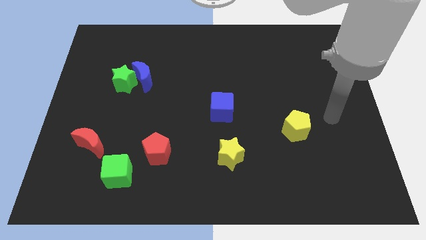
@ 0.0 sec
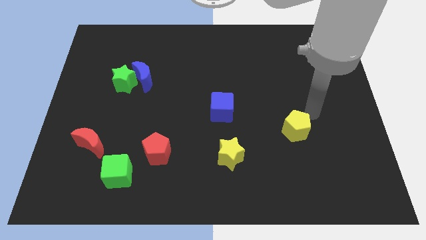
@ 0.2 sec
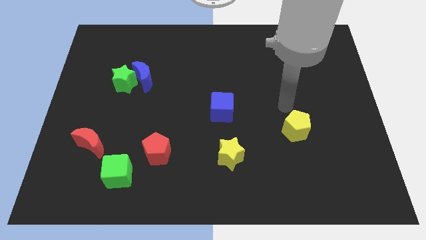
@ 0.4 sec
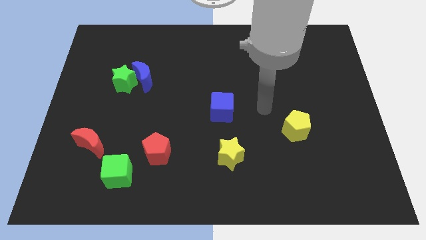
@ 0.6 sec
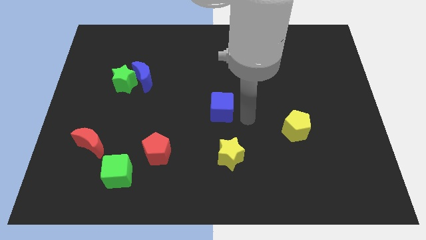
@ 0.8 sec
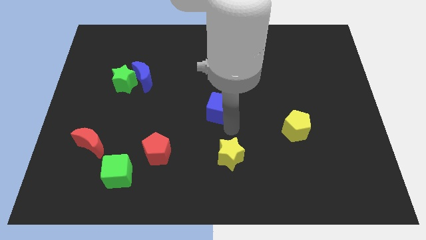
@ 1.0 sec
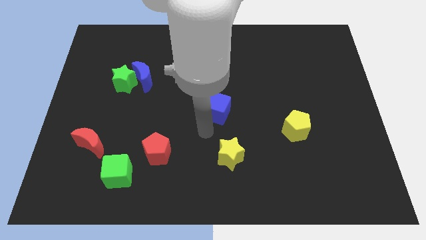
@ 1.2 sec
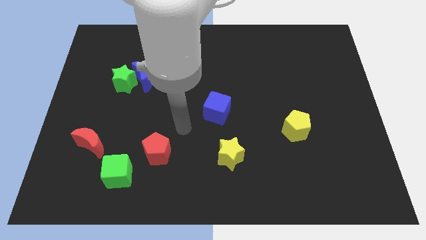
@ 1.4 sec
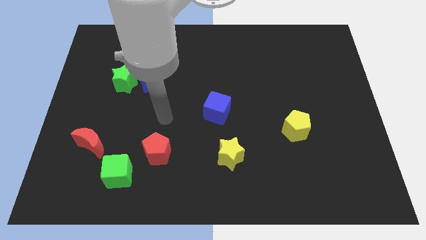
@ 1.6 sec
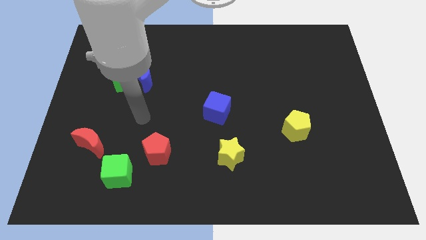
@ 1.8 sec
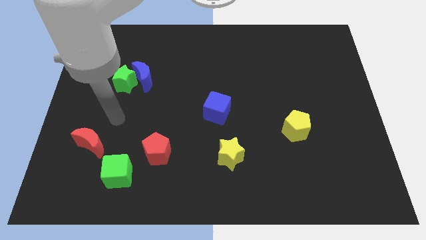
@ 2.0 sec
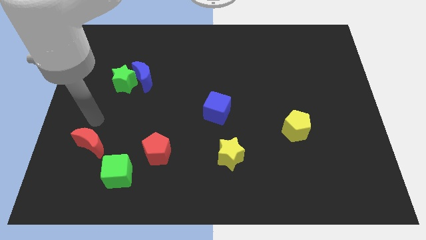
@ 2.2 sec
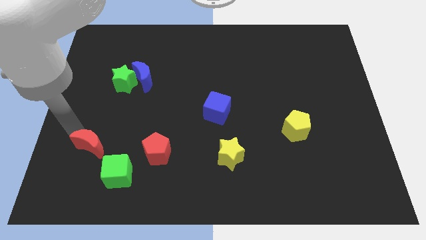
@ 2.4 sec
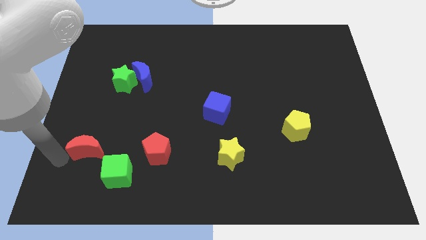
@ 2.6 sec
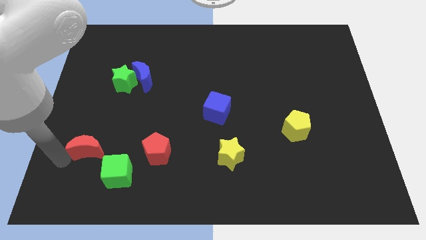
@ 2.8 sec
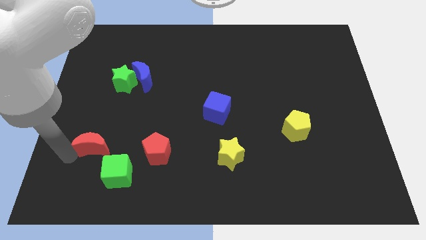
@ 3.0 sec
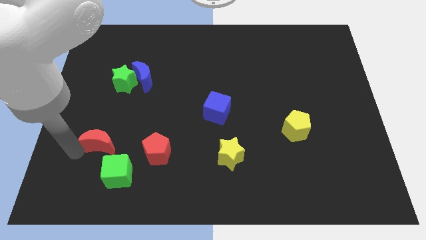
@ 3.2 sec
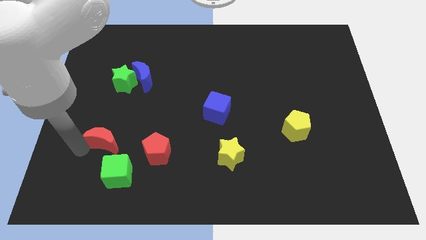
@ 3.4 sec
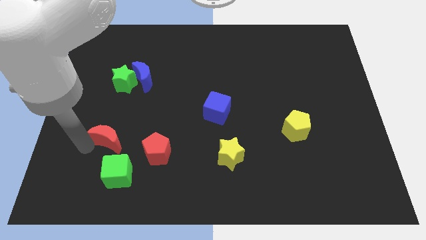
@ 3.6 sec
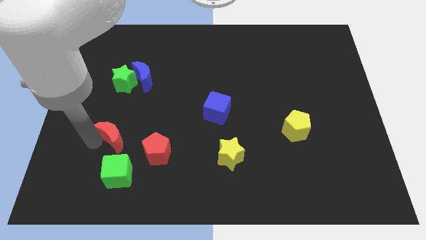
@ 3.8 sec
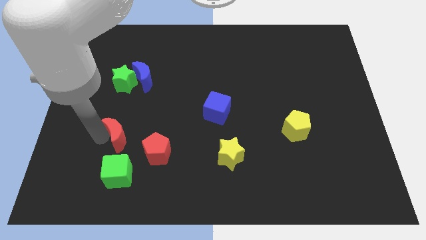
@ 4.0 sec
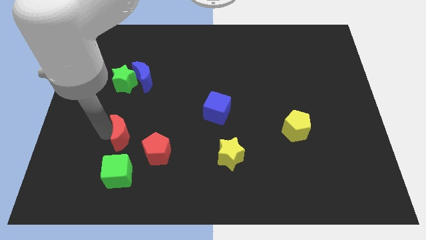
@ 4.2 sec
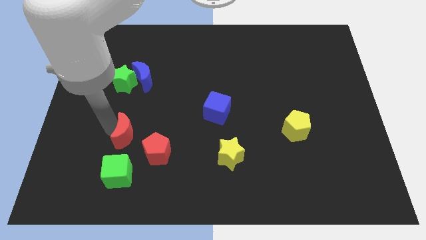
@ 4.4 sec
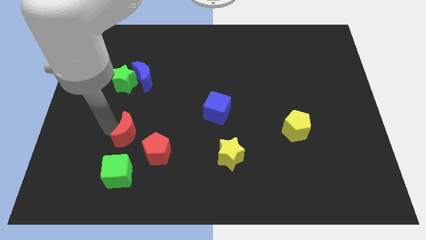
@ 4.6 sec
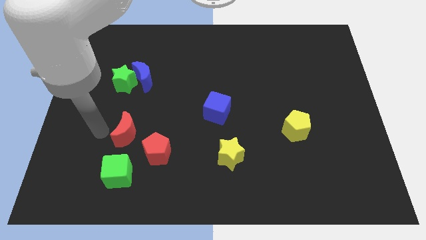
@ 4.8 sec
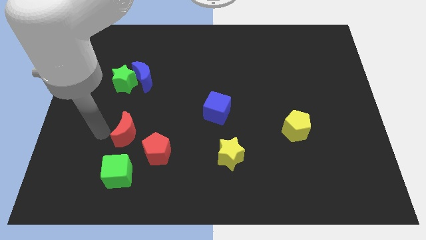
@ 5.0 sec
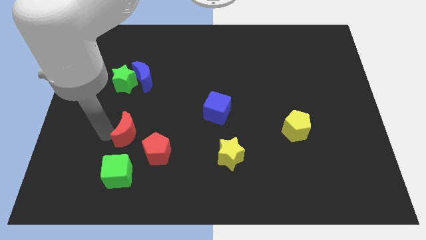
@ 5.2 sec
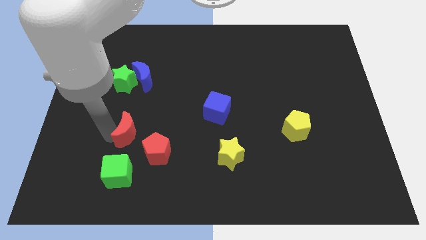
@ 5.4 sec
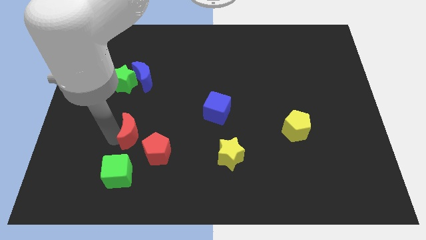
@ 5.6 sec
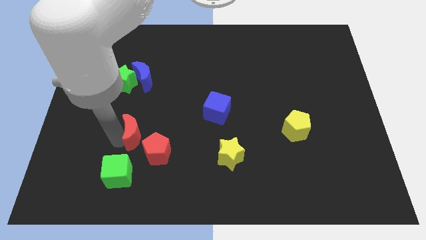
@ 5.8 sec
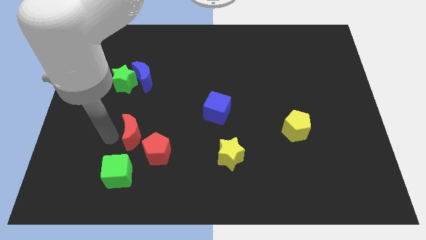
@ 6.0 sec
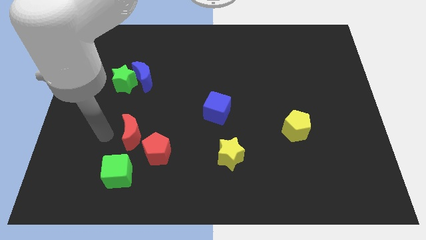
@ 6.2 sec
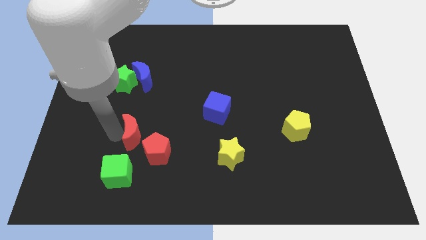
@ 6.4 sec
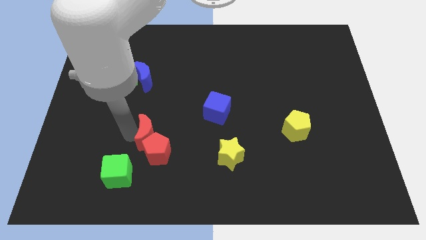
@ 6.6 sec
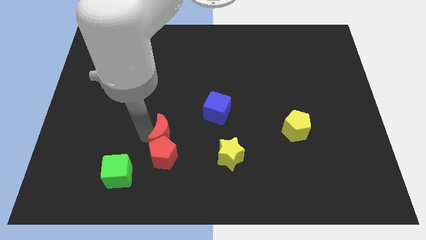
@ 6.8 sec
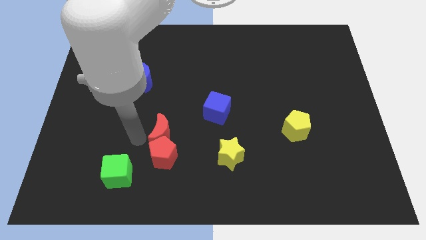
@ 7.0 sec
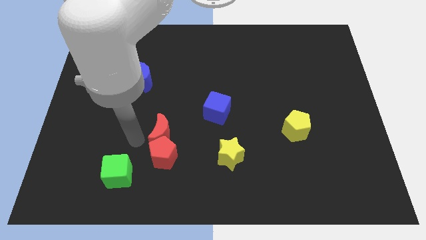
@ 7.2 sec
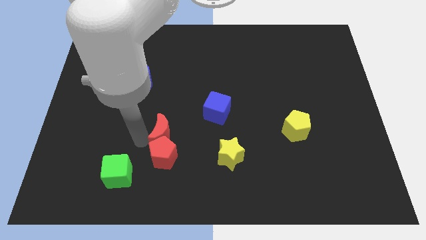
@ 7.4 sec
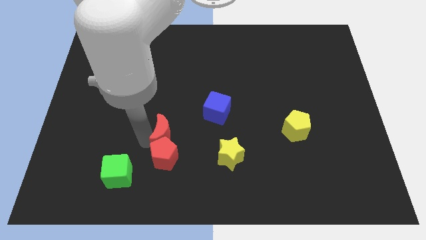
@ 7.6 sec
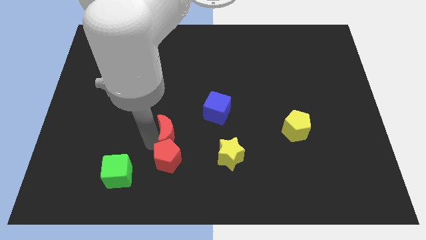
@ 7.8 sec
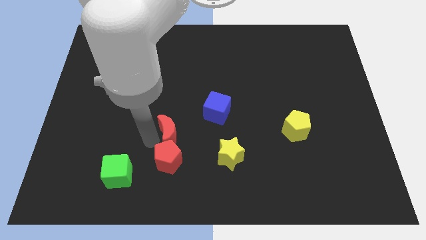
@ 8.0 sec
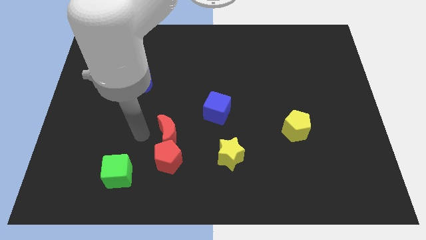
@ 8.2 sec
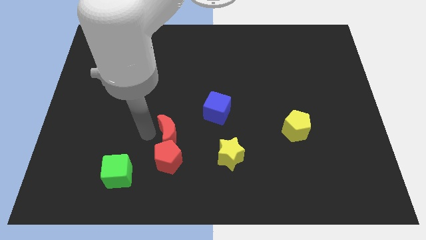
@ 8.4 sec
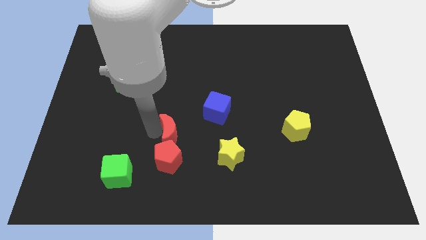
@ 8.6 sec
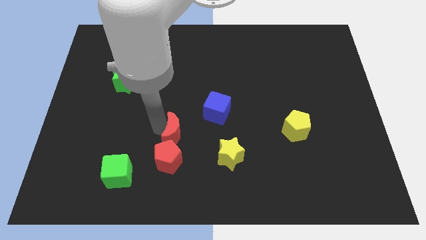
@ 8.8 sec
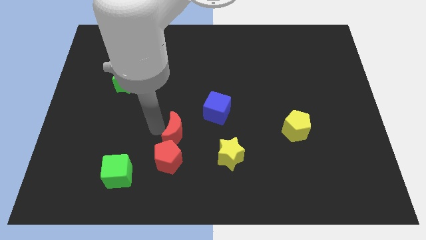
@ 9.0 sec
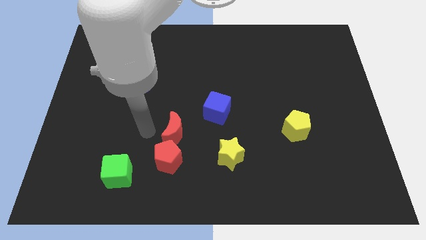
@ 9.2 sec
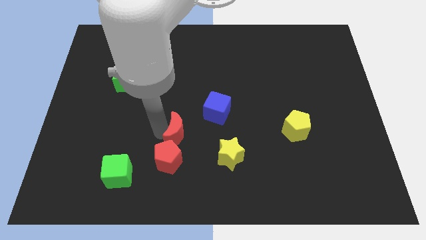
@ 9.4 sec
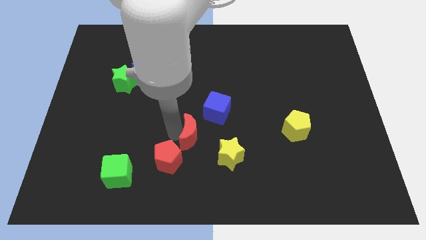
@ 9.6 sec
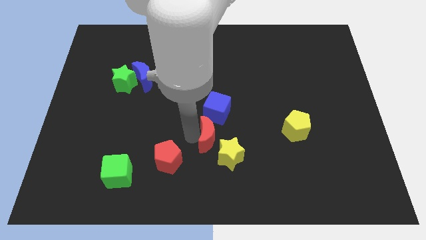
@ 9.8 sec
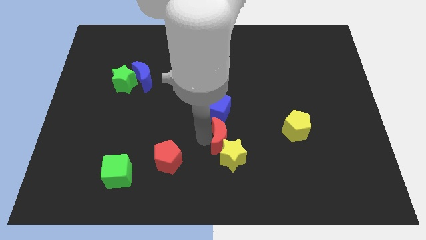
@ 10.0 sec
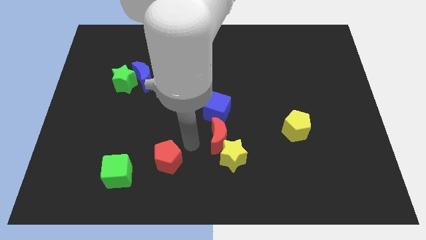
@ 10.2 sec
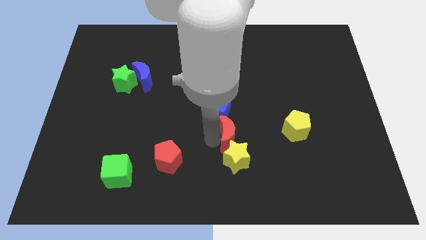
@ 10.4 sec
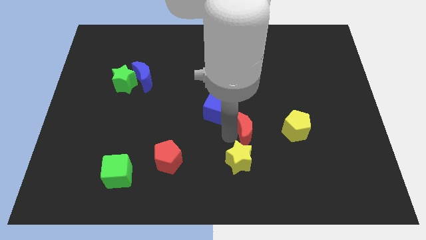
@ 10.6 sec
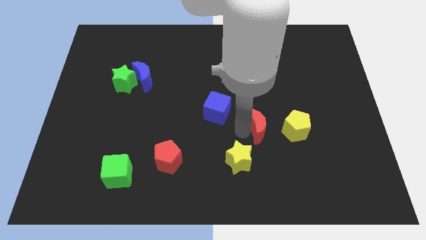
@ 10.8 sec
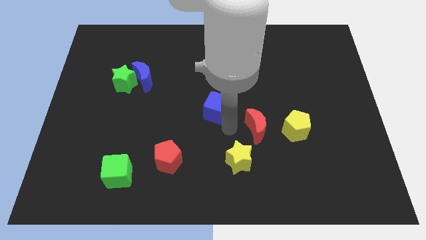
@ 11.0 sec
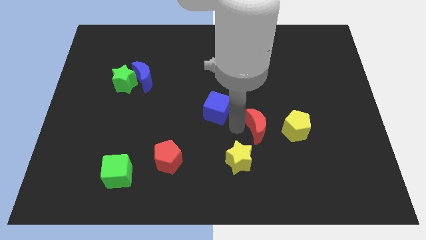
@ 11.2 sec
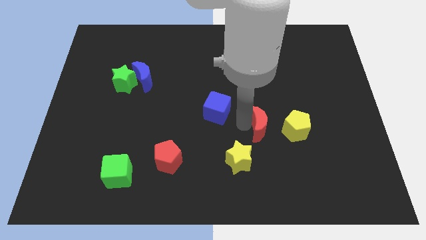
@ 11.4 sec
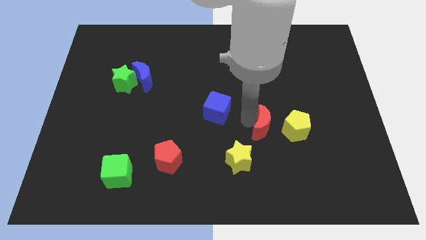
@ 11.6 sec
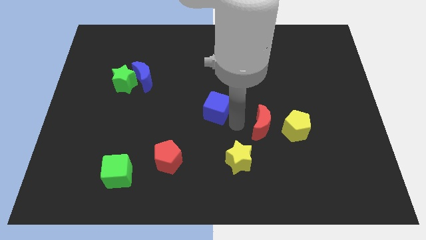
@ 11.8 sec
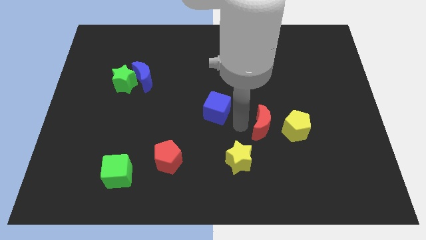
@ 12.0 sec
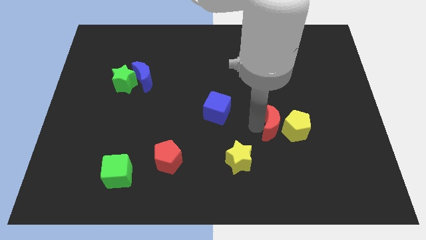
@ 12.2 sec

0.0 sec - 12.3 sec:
slide the red moon to the yellow pentagon

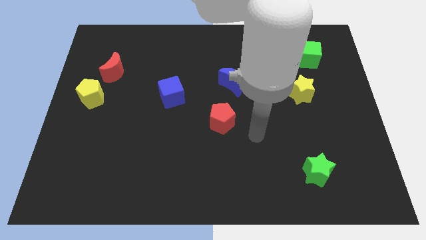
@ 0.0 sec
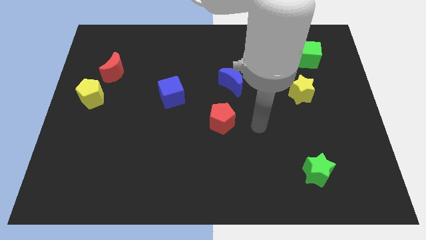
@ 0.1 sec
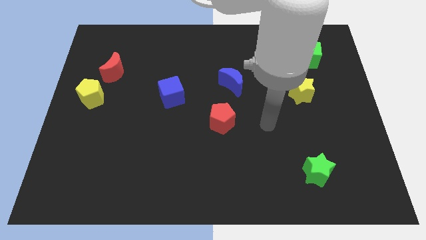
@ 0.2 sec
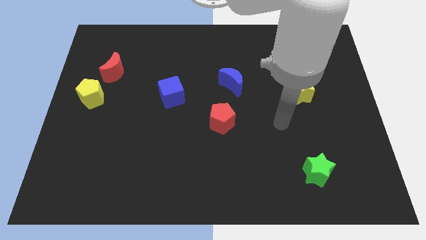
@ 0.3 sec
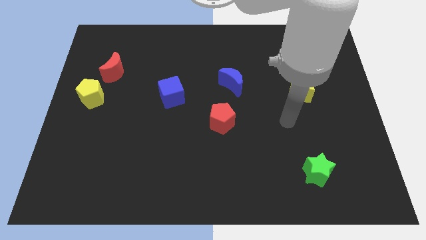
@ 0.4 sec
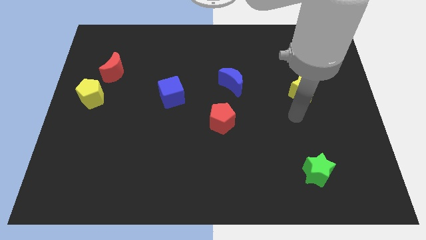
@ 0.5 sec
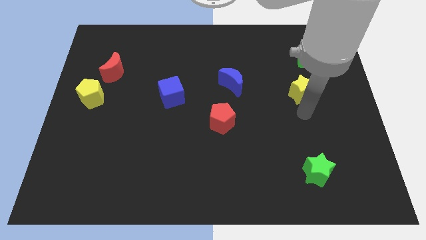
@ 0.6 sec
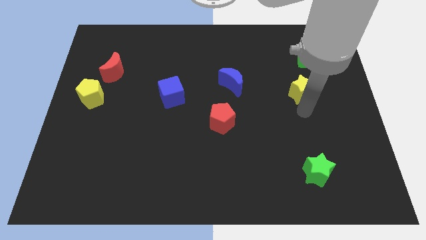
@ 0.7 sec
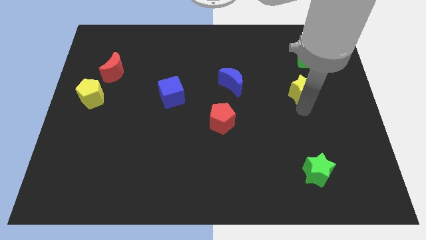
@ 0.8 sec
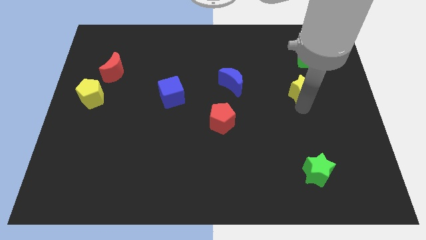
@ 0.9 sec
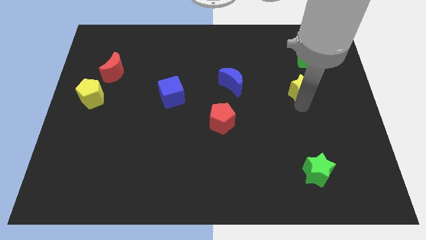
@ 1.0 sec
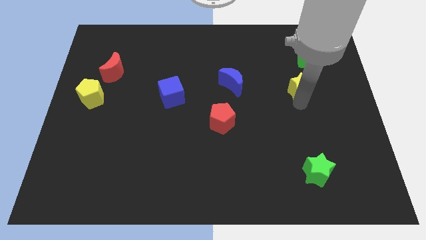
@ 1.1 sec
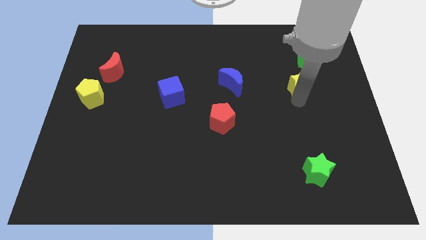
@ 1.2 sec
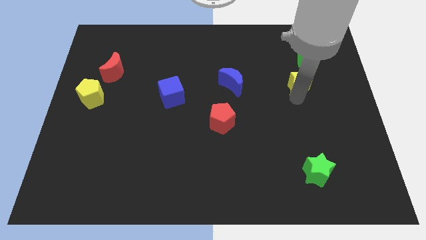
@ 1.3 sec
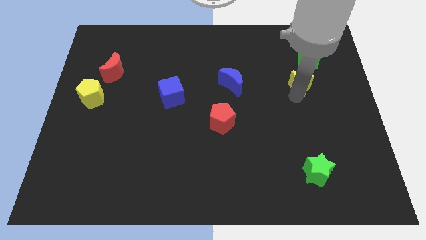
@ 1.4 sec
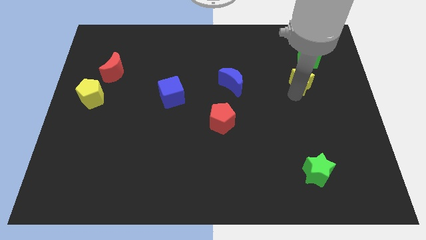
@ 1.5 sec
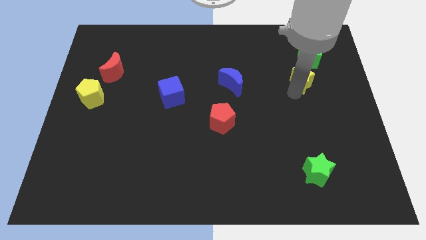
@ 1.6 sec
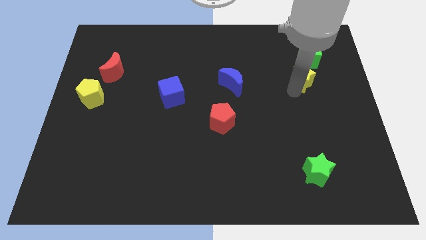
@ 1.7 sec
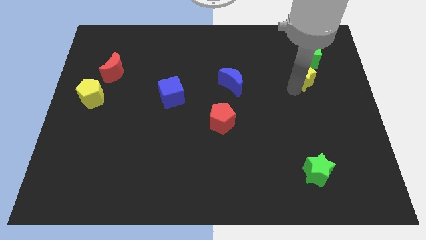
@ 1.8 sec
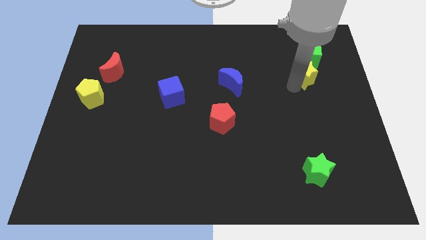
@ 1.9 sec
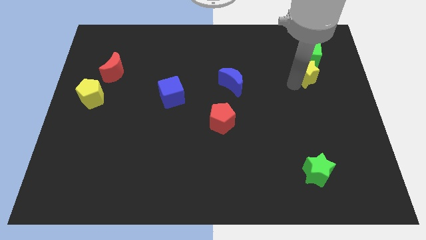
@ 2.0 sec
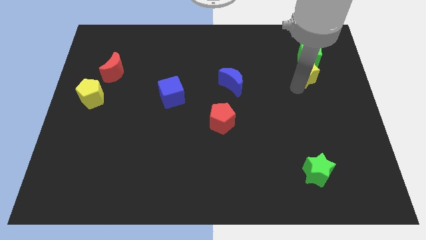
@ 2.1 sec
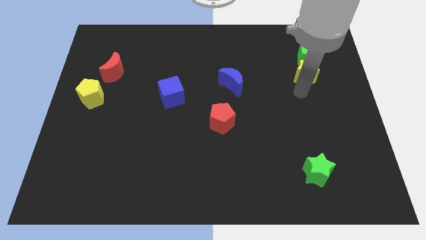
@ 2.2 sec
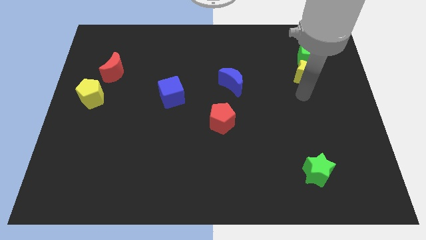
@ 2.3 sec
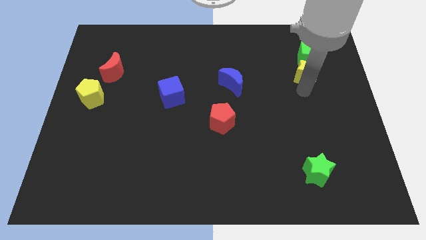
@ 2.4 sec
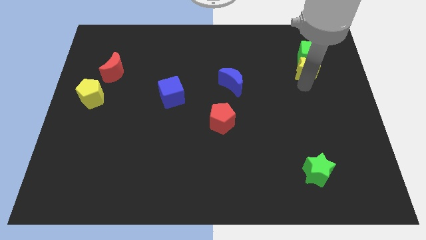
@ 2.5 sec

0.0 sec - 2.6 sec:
push the yellow star towards the green cube
